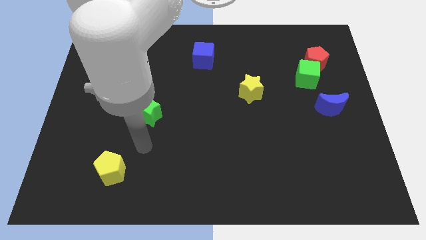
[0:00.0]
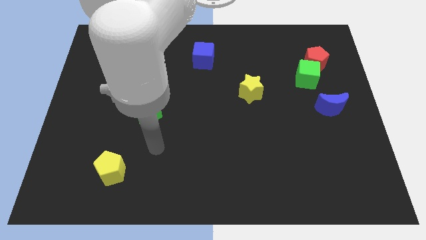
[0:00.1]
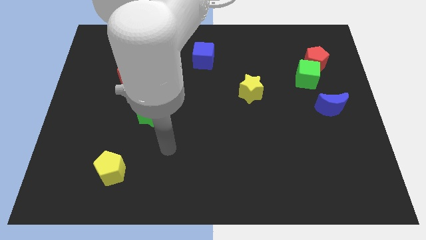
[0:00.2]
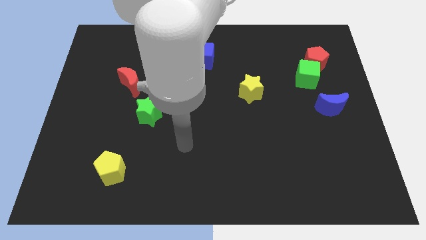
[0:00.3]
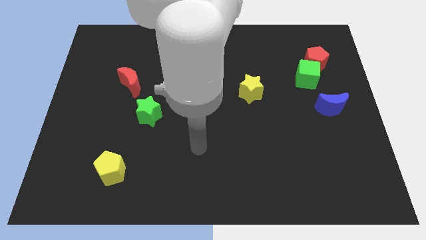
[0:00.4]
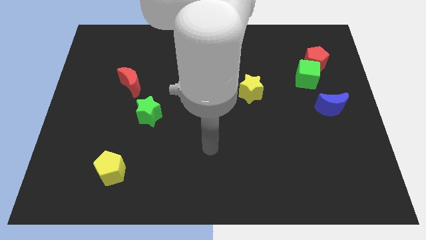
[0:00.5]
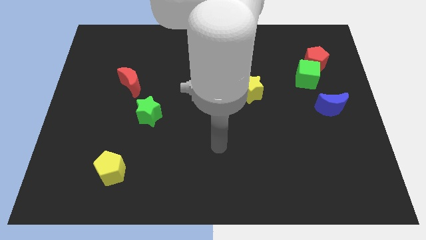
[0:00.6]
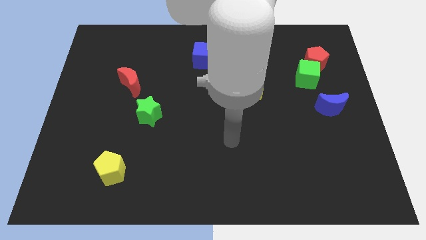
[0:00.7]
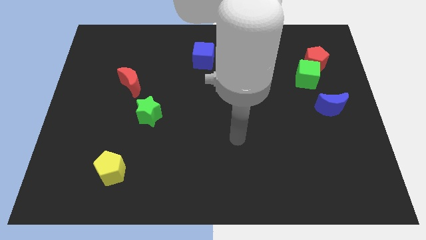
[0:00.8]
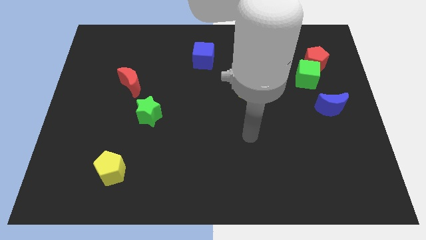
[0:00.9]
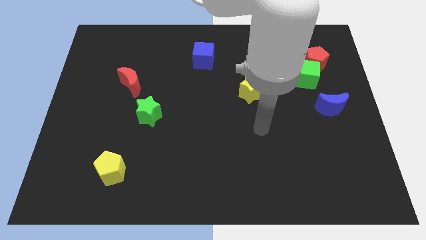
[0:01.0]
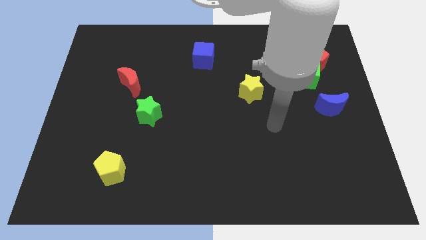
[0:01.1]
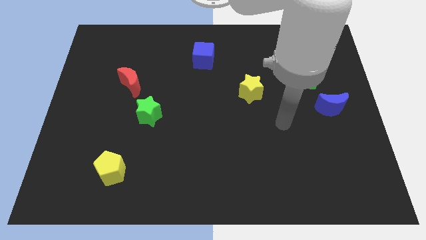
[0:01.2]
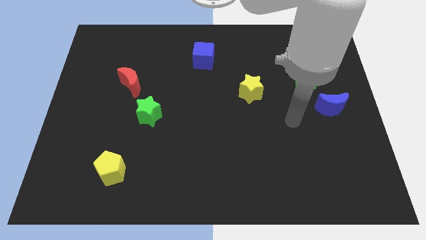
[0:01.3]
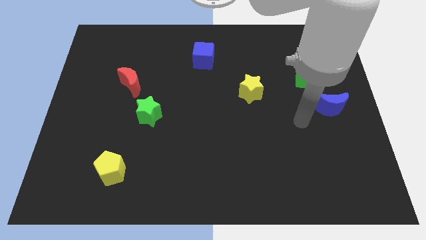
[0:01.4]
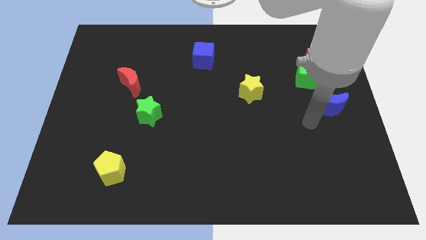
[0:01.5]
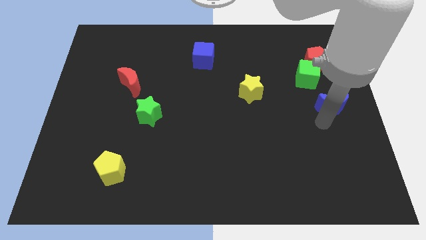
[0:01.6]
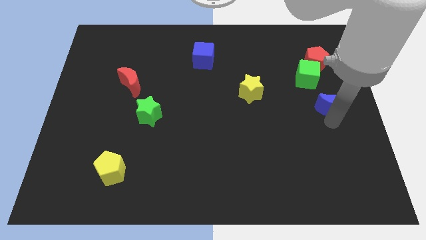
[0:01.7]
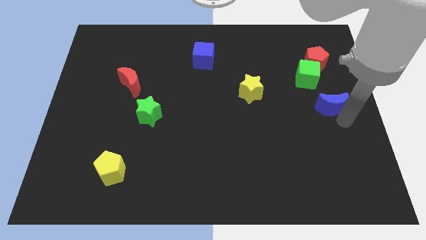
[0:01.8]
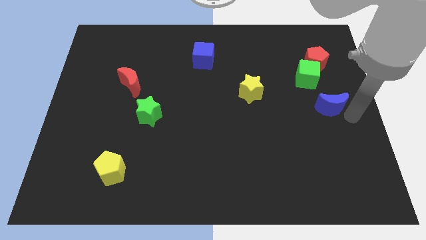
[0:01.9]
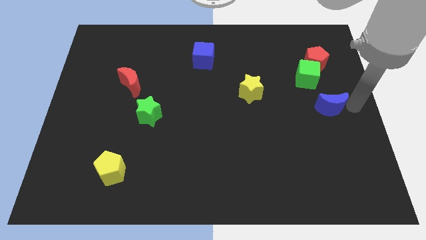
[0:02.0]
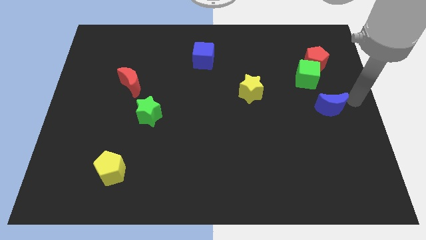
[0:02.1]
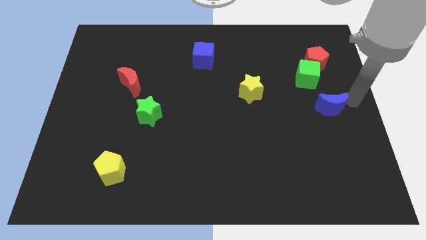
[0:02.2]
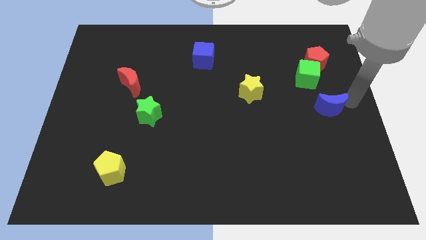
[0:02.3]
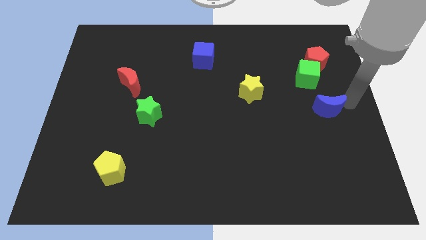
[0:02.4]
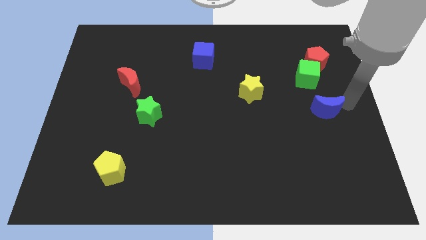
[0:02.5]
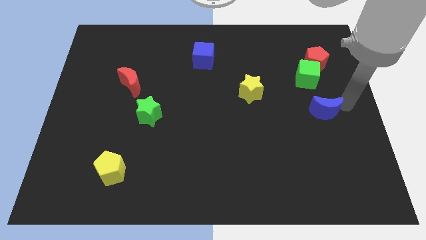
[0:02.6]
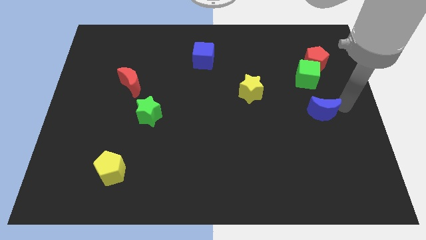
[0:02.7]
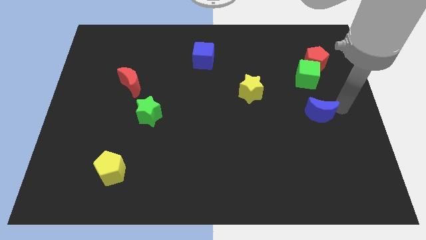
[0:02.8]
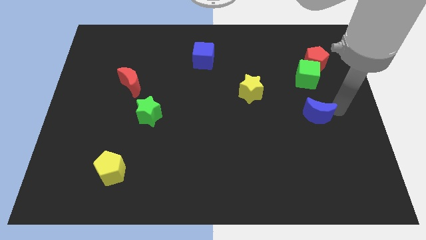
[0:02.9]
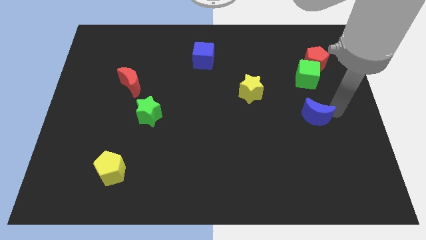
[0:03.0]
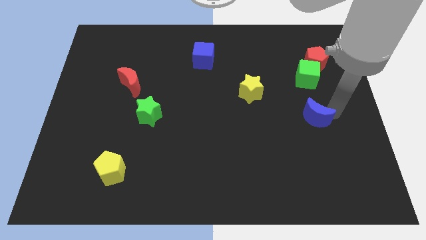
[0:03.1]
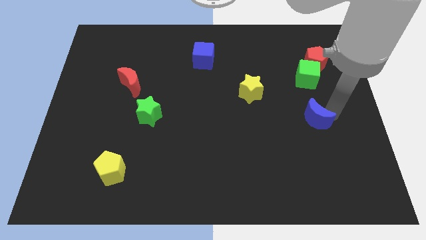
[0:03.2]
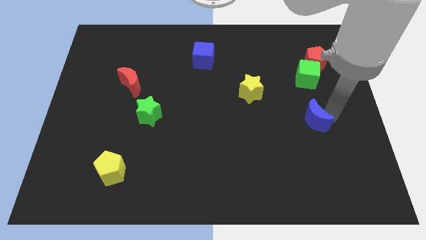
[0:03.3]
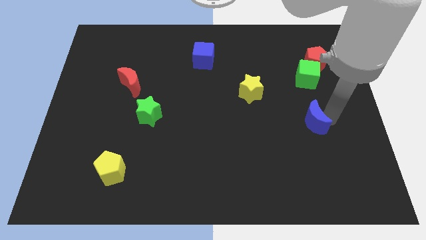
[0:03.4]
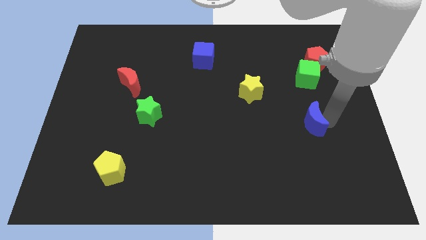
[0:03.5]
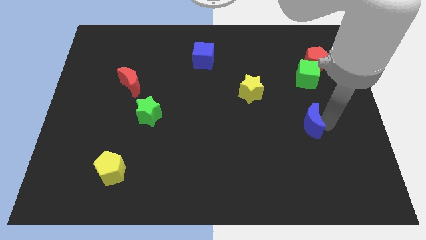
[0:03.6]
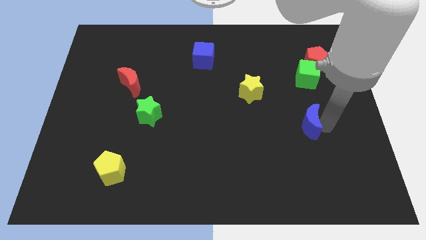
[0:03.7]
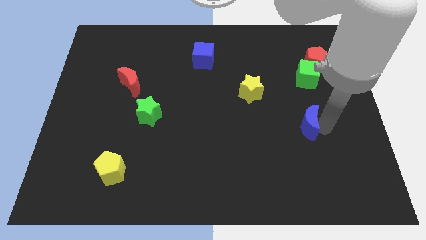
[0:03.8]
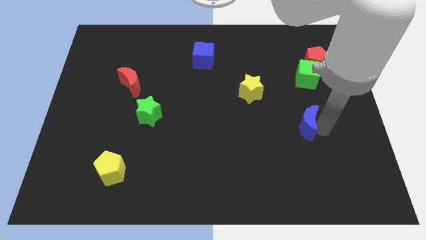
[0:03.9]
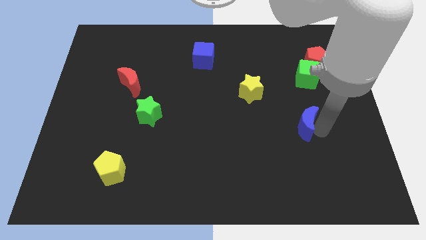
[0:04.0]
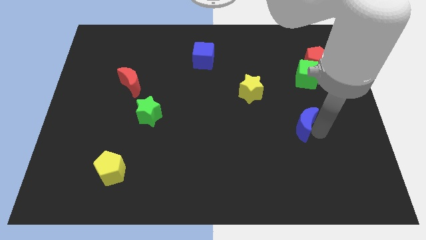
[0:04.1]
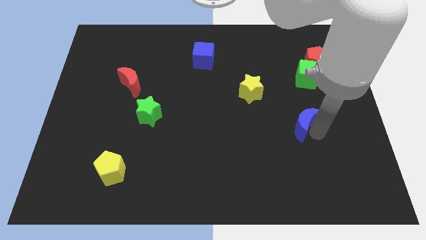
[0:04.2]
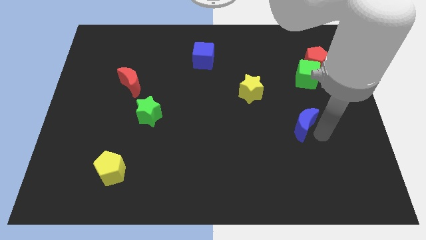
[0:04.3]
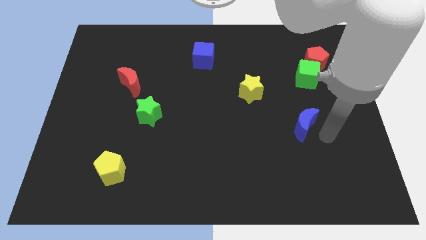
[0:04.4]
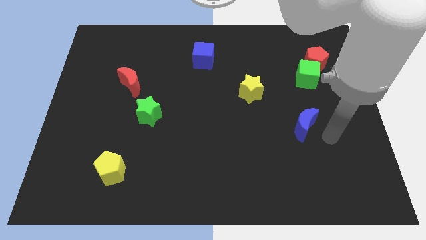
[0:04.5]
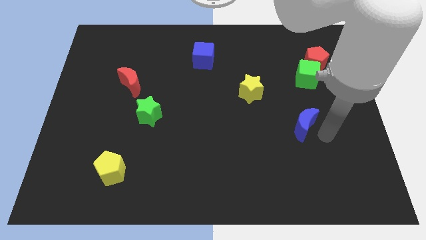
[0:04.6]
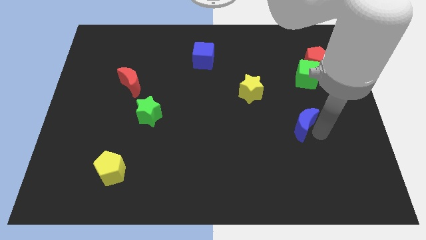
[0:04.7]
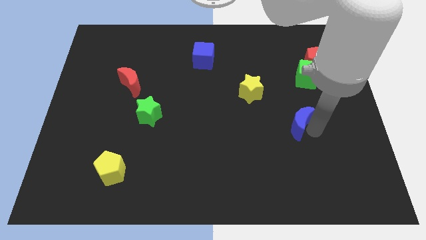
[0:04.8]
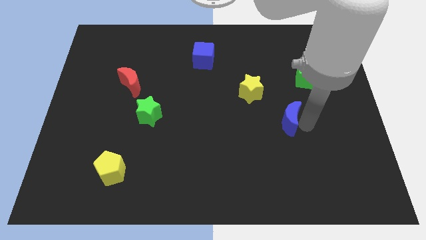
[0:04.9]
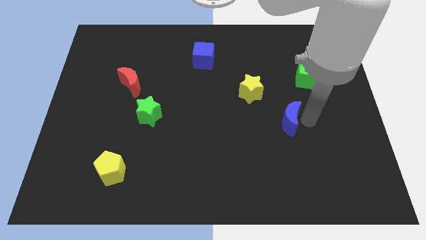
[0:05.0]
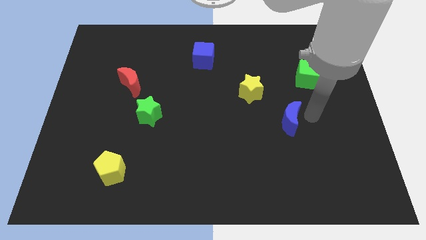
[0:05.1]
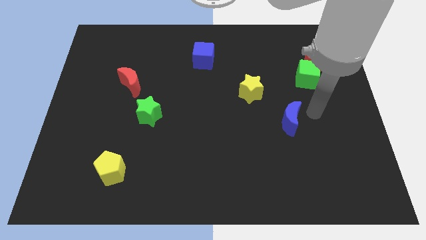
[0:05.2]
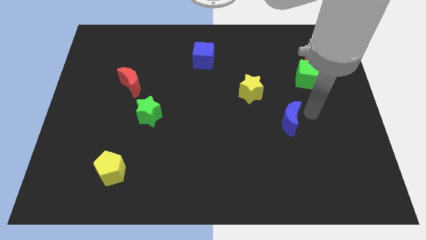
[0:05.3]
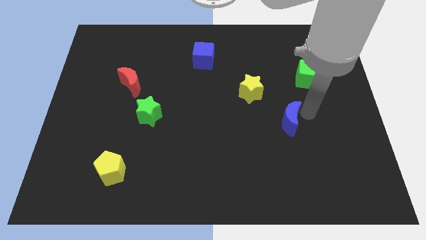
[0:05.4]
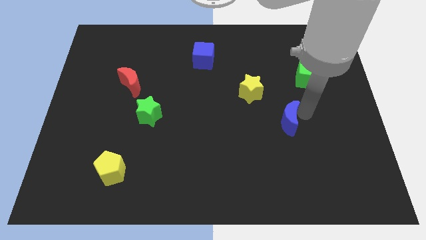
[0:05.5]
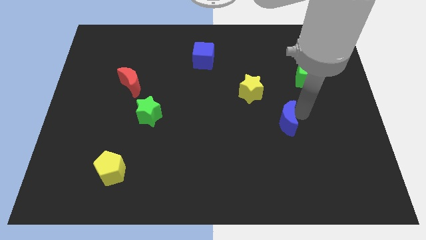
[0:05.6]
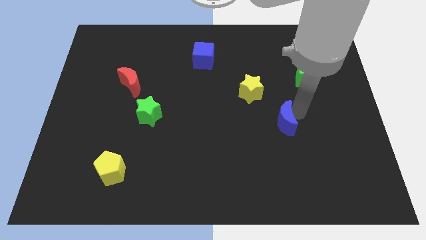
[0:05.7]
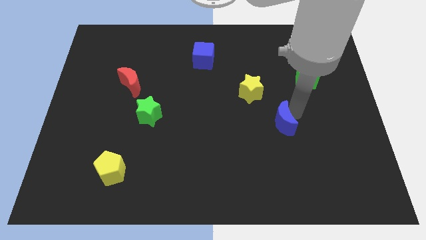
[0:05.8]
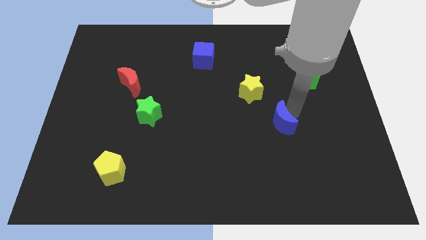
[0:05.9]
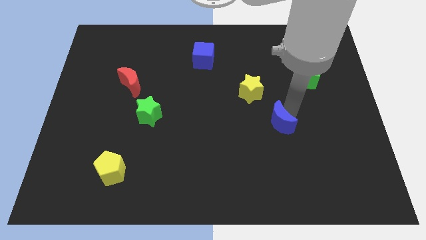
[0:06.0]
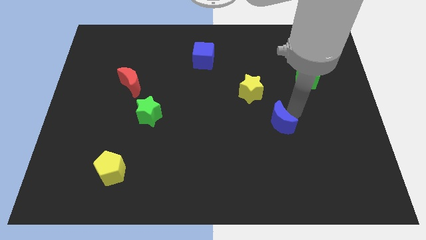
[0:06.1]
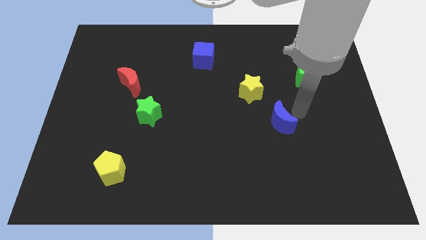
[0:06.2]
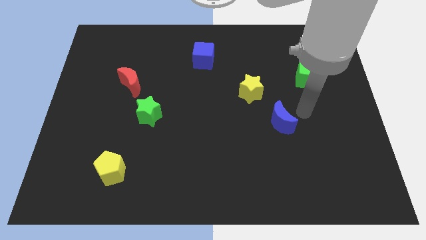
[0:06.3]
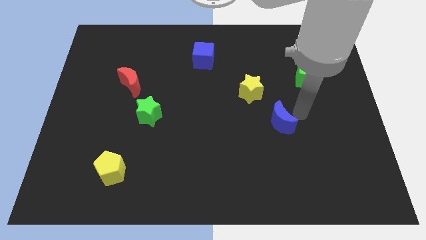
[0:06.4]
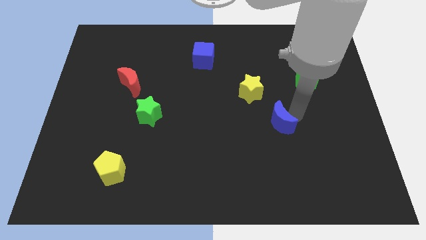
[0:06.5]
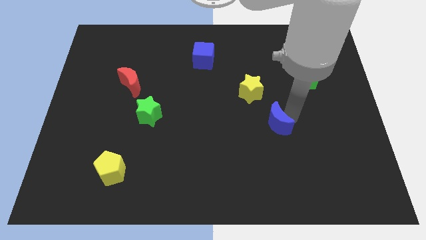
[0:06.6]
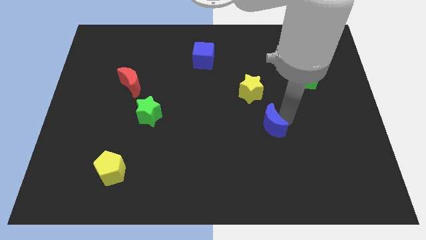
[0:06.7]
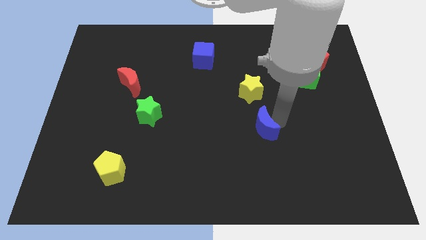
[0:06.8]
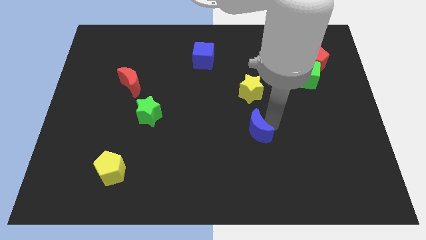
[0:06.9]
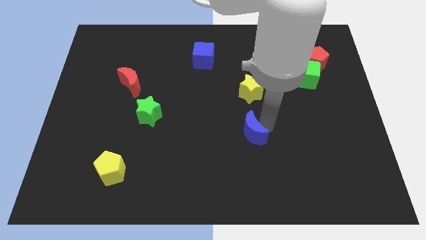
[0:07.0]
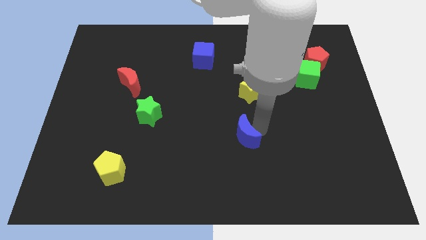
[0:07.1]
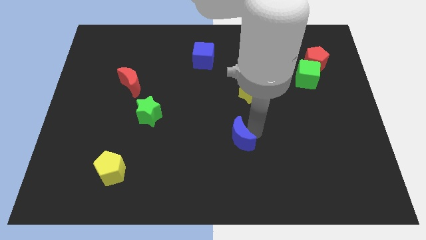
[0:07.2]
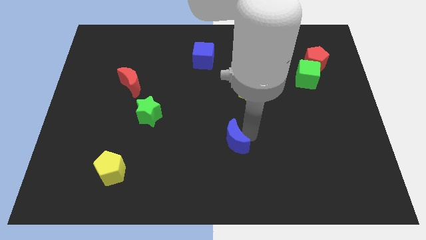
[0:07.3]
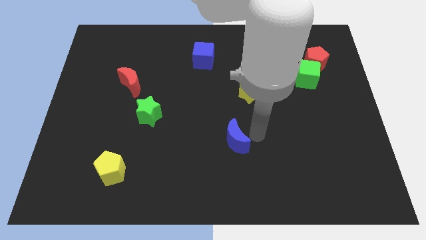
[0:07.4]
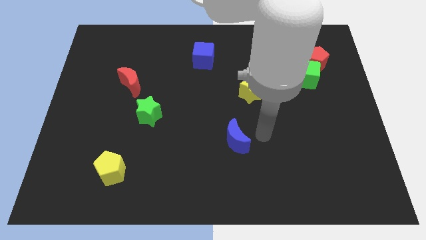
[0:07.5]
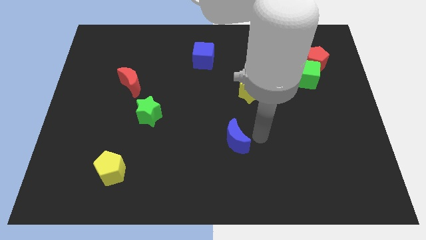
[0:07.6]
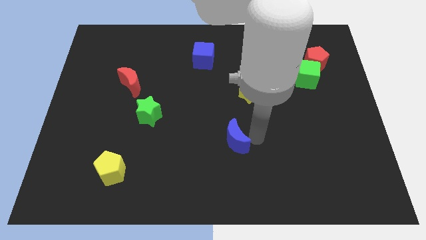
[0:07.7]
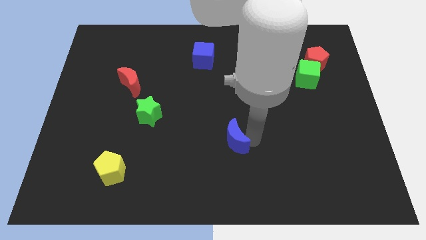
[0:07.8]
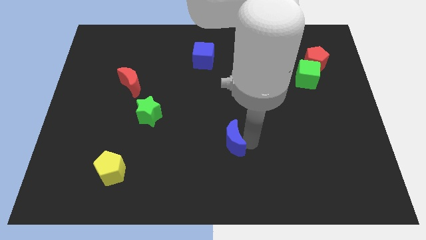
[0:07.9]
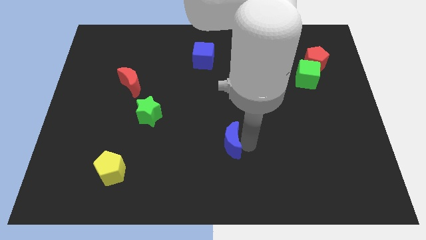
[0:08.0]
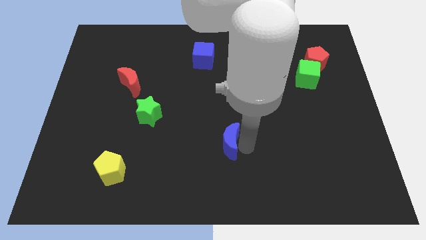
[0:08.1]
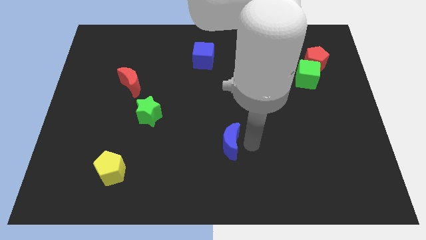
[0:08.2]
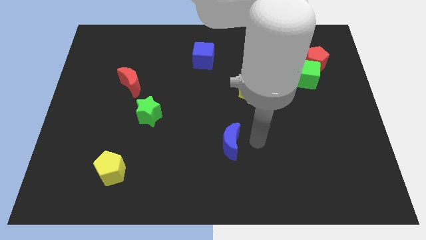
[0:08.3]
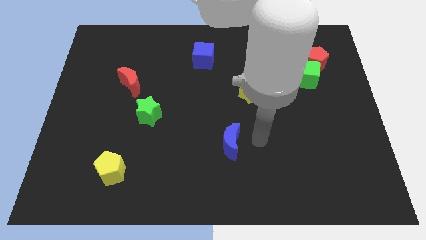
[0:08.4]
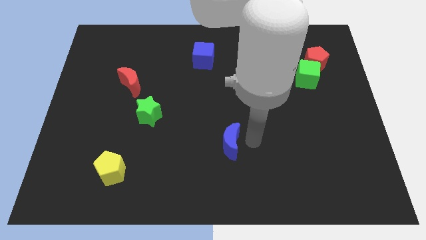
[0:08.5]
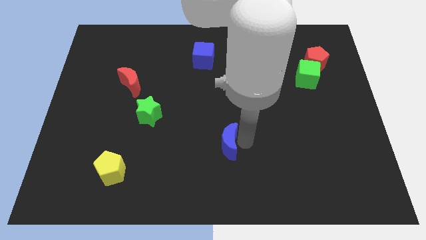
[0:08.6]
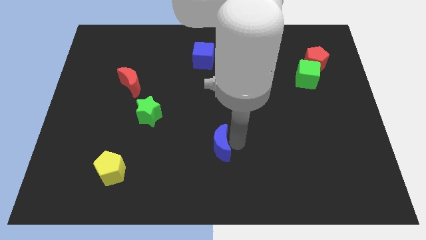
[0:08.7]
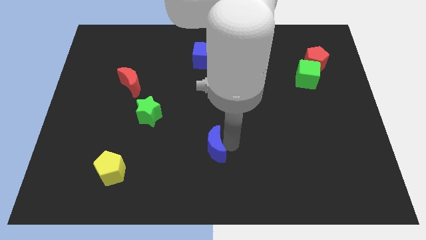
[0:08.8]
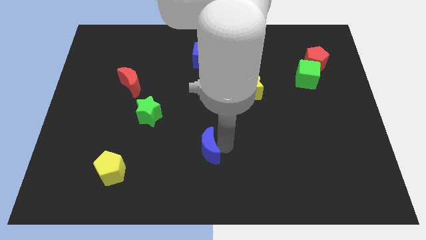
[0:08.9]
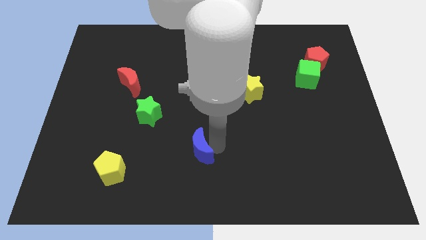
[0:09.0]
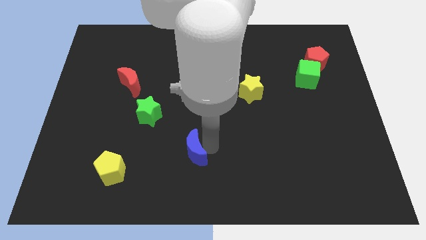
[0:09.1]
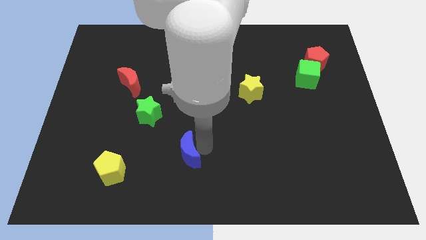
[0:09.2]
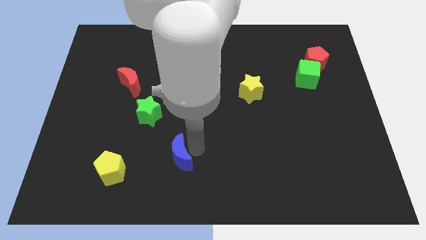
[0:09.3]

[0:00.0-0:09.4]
push the blue moon just right of the yellow pentagon
